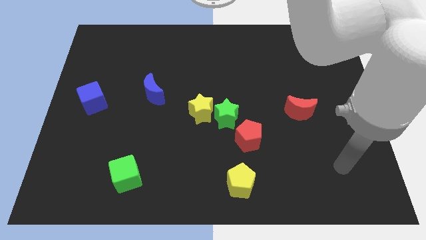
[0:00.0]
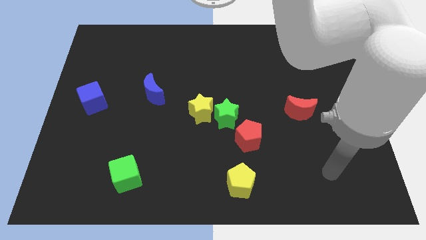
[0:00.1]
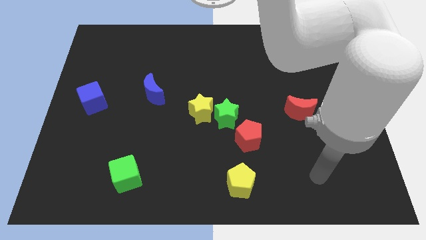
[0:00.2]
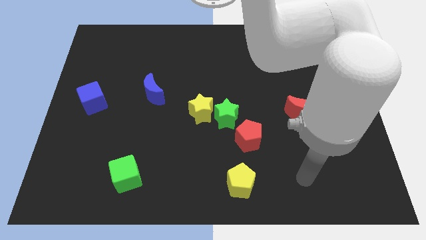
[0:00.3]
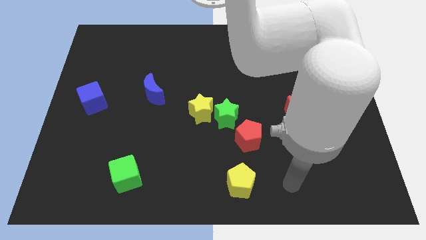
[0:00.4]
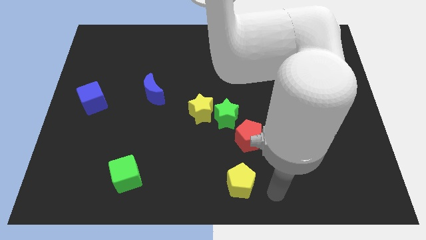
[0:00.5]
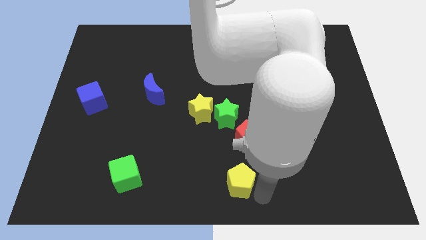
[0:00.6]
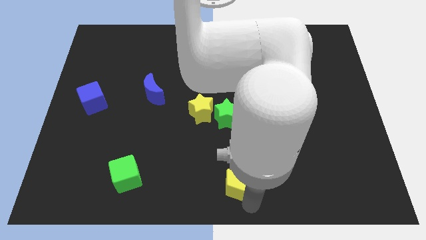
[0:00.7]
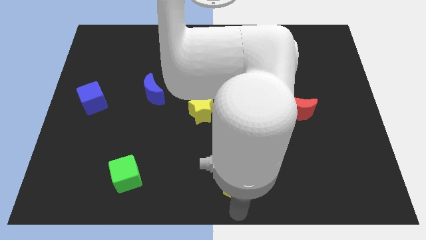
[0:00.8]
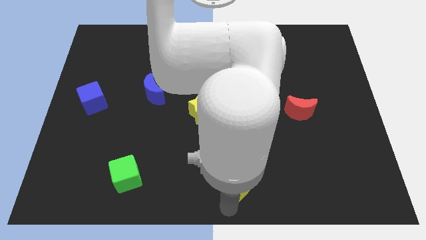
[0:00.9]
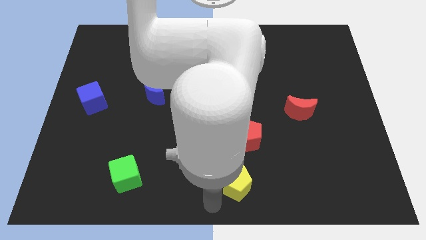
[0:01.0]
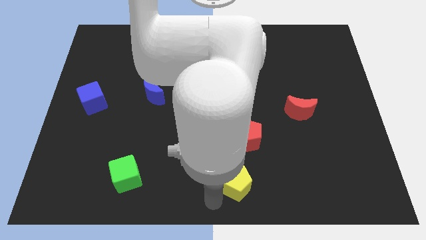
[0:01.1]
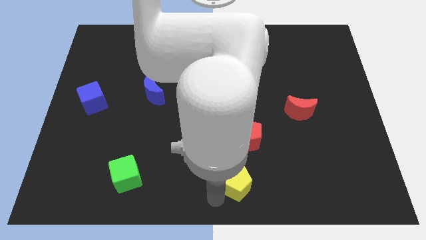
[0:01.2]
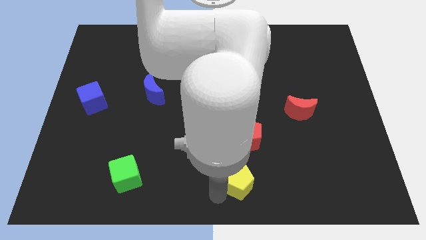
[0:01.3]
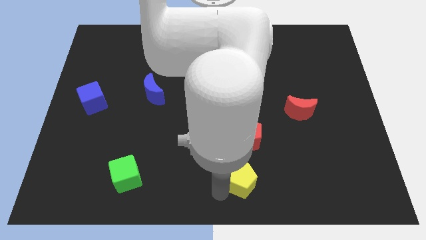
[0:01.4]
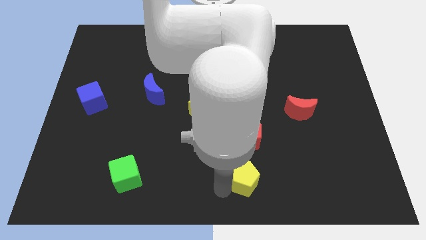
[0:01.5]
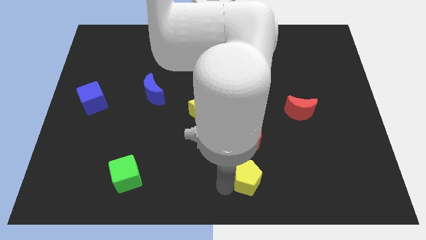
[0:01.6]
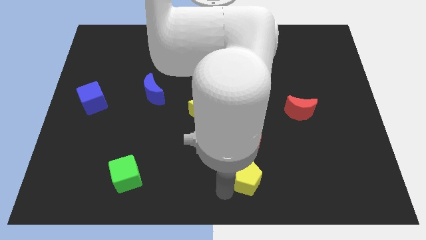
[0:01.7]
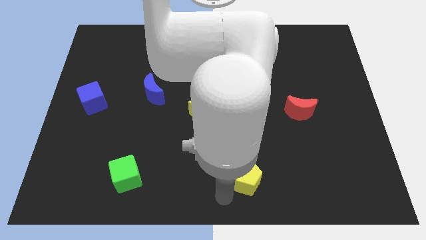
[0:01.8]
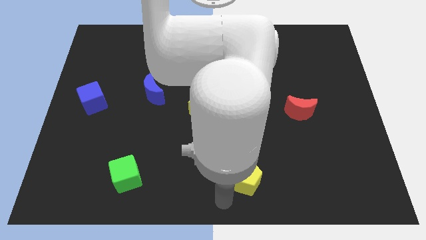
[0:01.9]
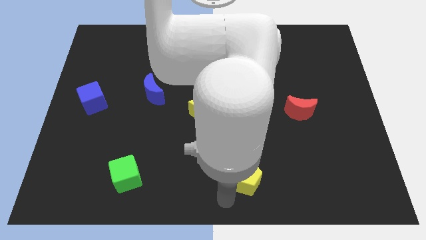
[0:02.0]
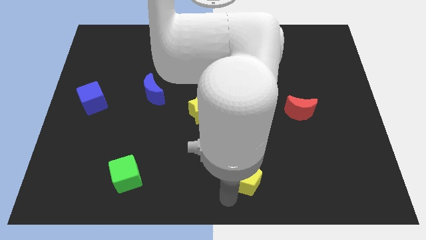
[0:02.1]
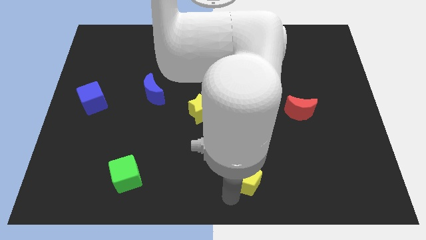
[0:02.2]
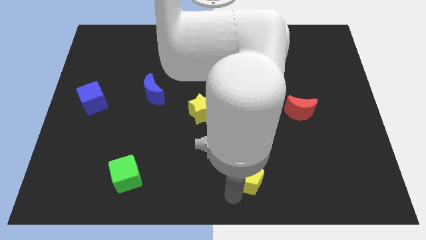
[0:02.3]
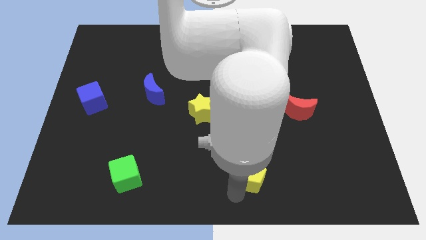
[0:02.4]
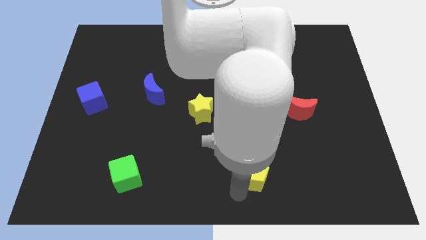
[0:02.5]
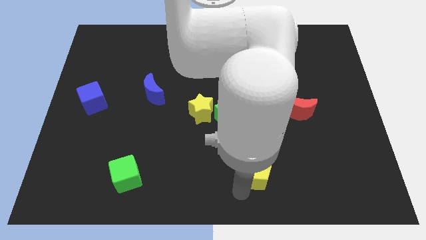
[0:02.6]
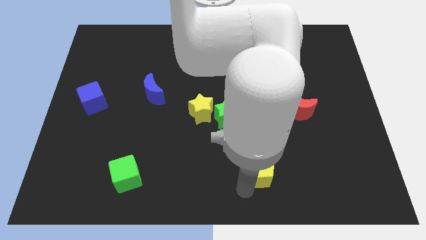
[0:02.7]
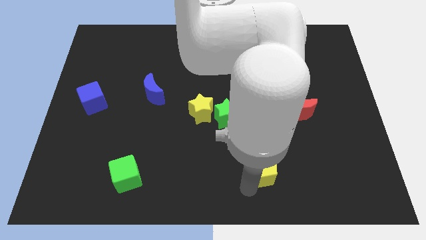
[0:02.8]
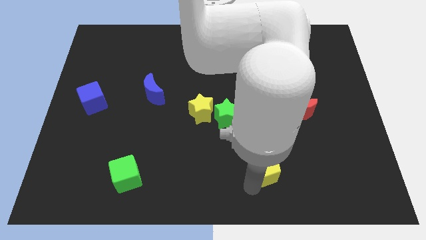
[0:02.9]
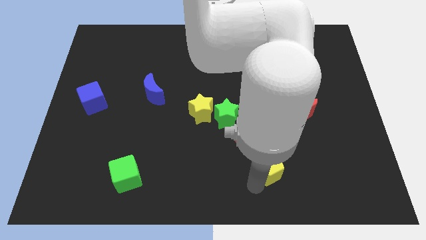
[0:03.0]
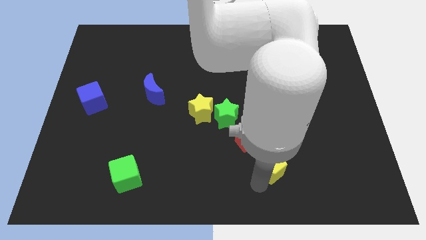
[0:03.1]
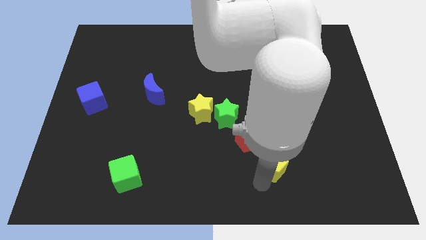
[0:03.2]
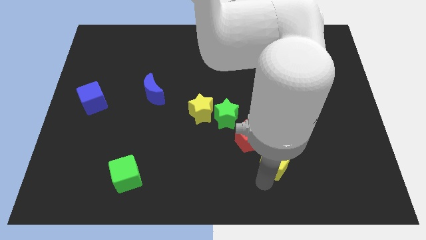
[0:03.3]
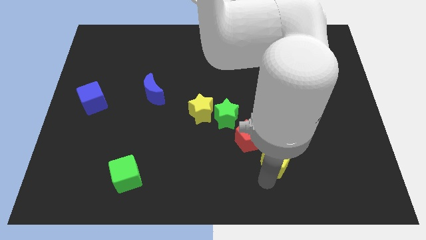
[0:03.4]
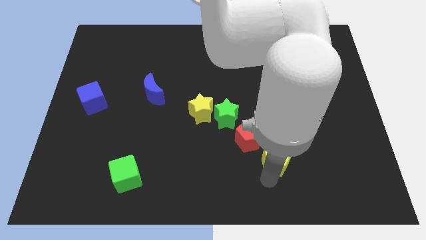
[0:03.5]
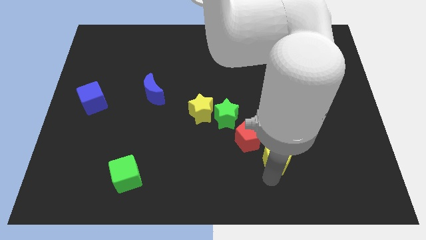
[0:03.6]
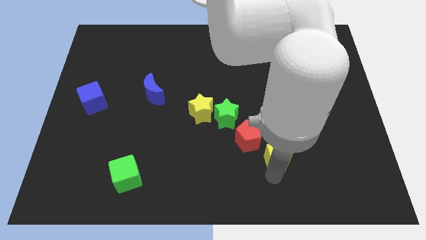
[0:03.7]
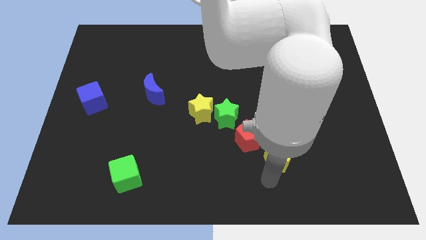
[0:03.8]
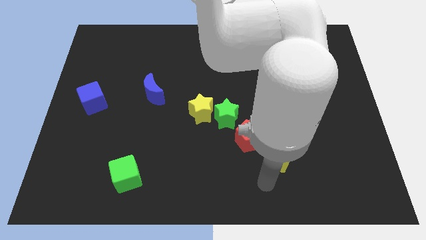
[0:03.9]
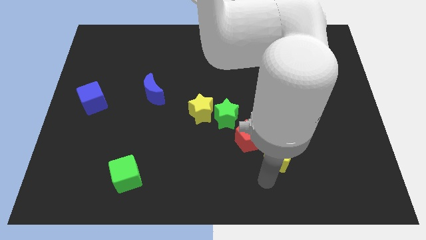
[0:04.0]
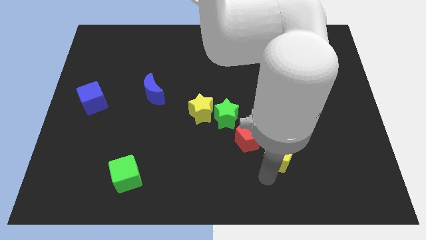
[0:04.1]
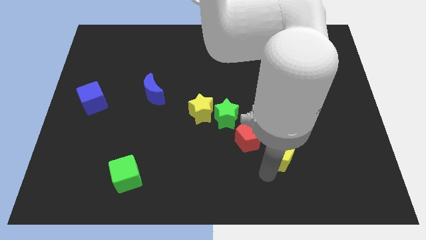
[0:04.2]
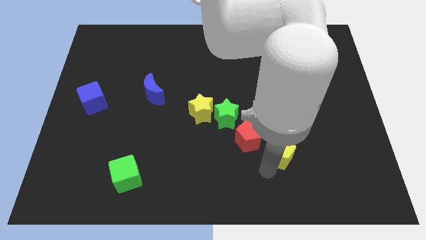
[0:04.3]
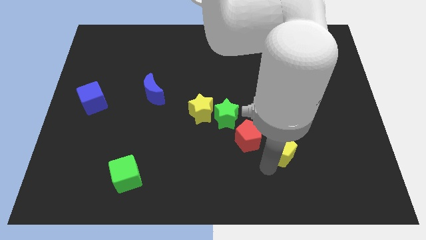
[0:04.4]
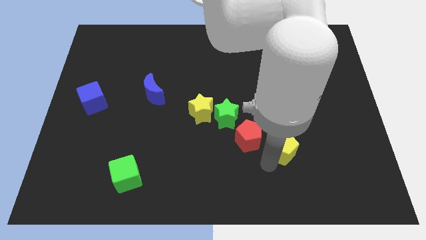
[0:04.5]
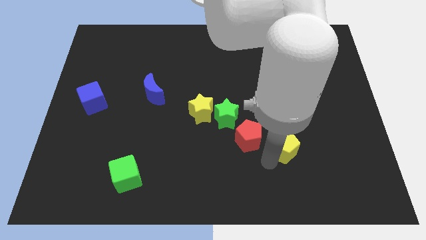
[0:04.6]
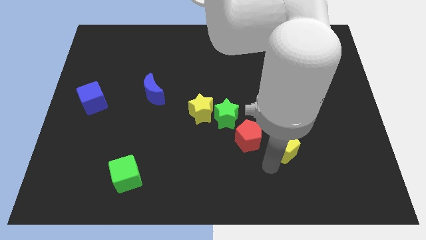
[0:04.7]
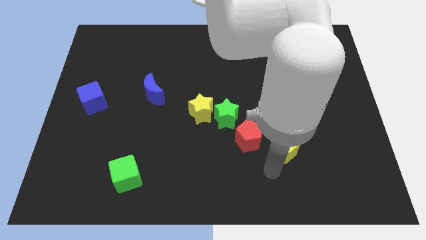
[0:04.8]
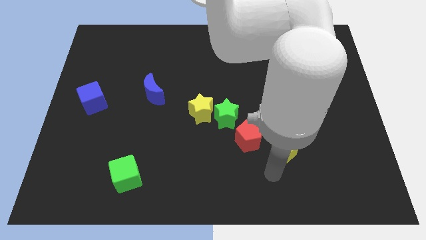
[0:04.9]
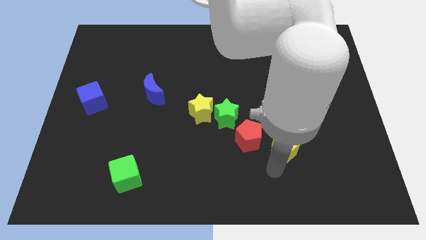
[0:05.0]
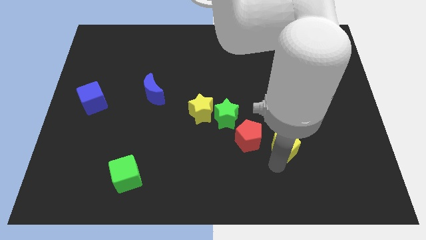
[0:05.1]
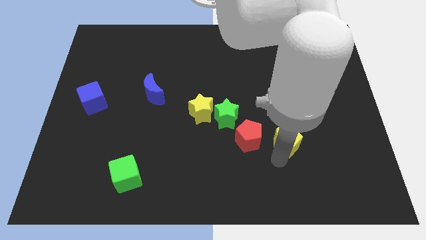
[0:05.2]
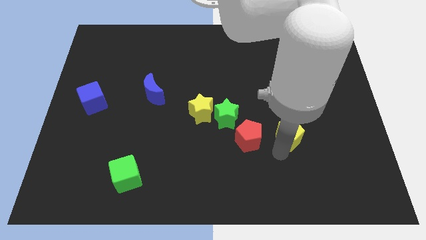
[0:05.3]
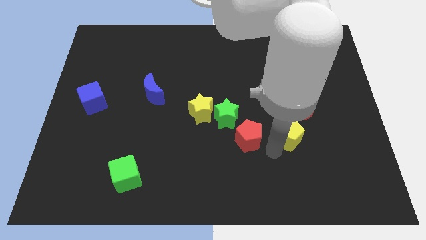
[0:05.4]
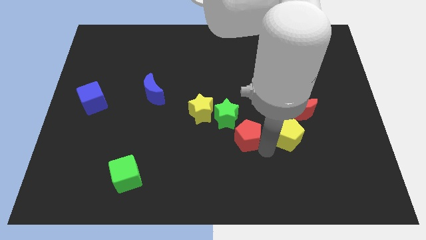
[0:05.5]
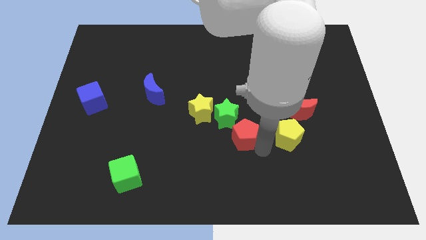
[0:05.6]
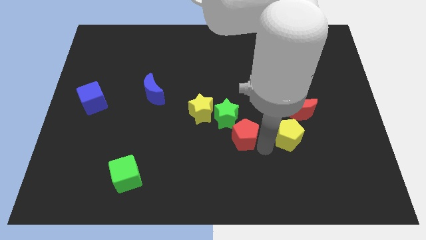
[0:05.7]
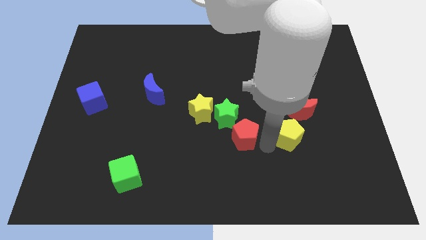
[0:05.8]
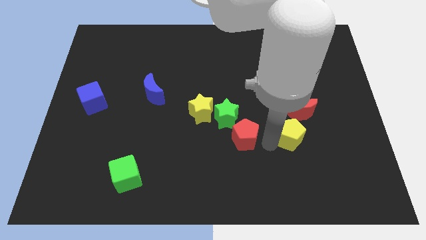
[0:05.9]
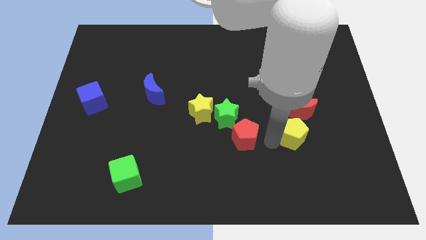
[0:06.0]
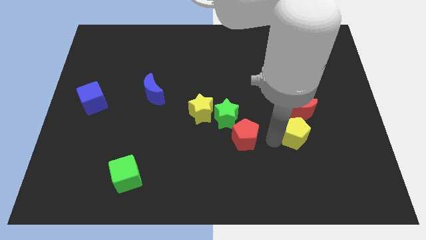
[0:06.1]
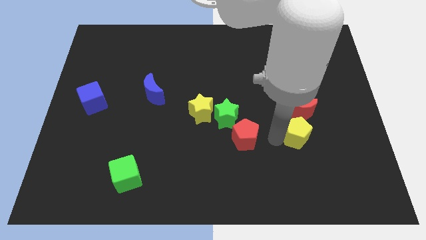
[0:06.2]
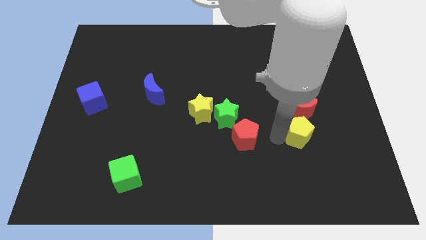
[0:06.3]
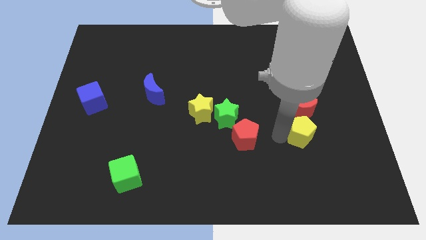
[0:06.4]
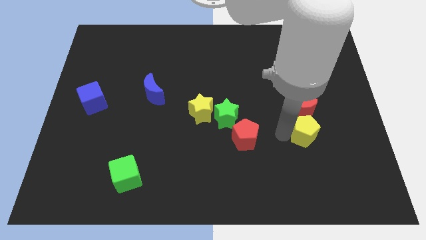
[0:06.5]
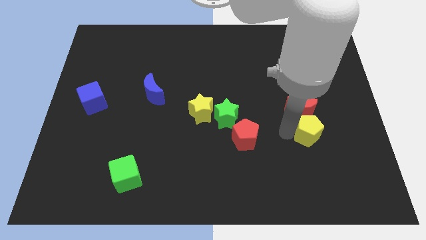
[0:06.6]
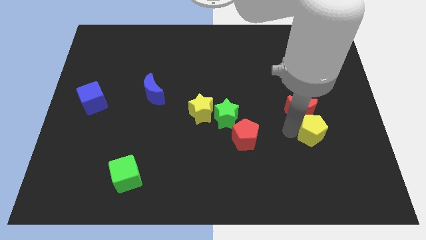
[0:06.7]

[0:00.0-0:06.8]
move the yellow pentagon up and right diagonally

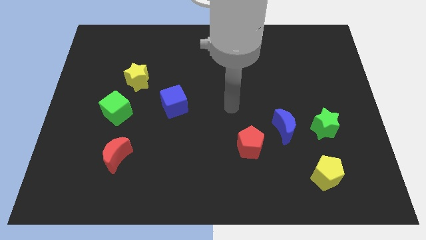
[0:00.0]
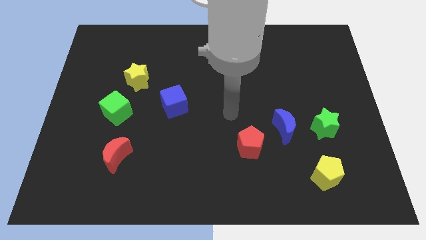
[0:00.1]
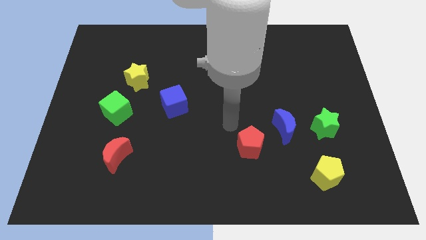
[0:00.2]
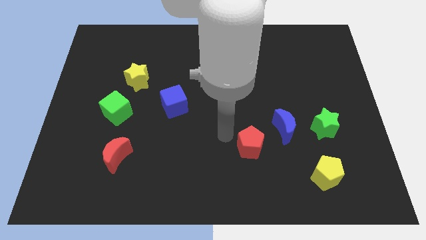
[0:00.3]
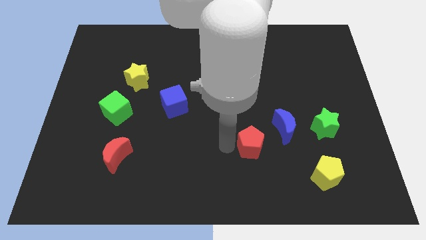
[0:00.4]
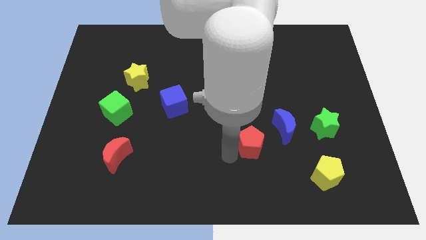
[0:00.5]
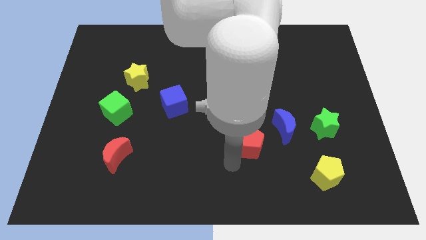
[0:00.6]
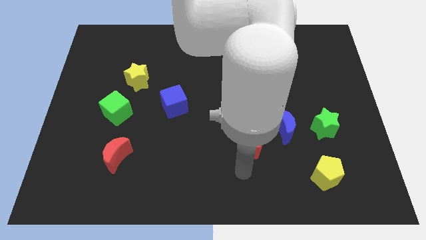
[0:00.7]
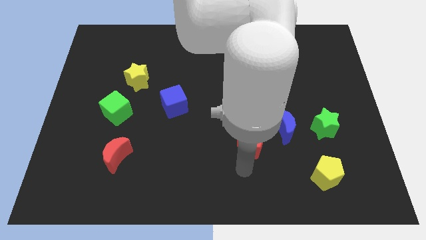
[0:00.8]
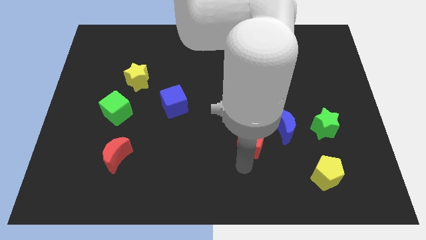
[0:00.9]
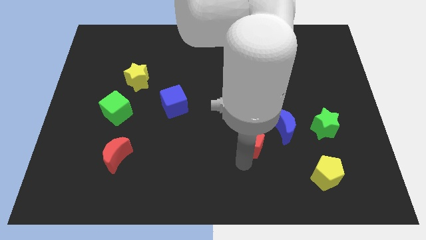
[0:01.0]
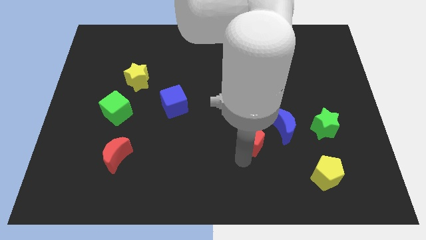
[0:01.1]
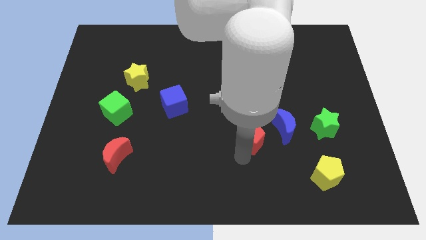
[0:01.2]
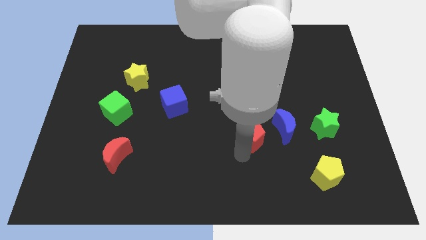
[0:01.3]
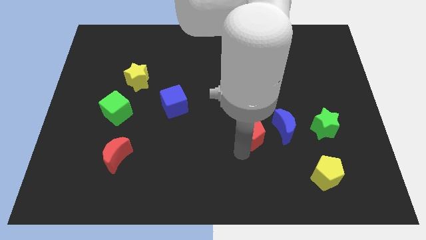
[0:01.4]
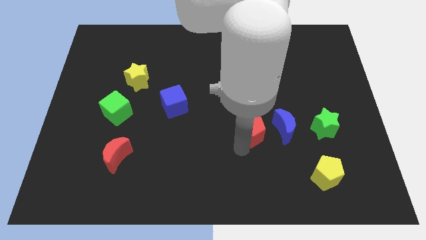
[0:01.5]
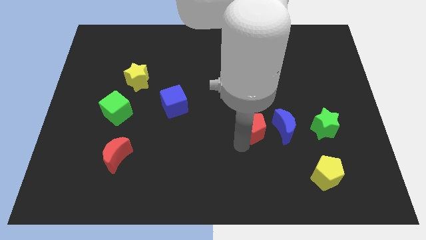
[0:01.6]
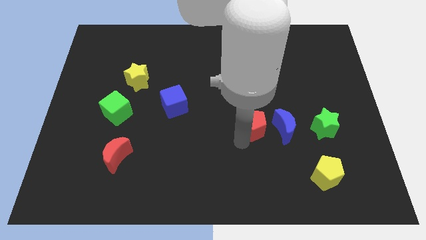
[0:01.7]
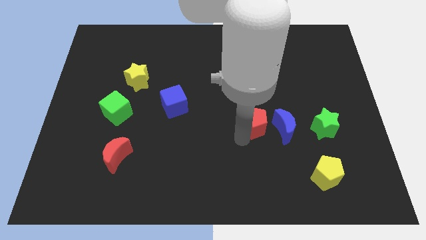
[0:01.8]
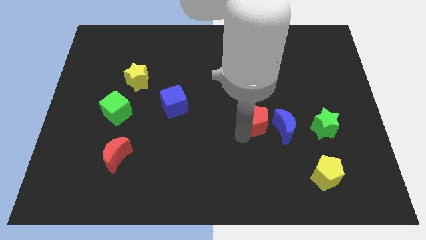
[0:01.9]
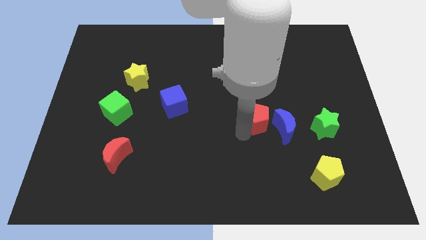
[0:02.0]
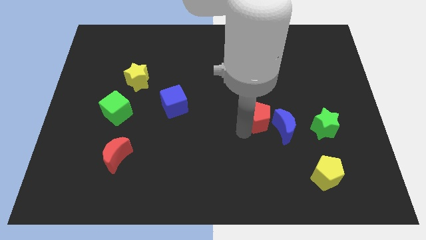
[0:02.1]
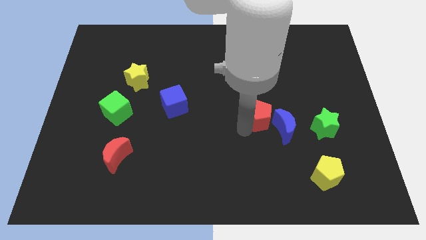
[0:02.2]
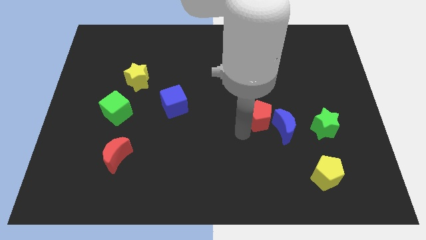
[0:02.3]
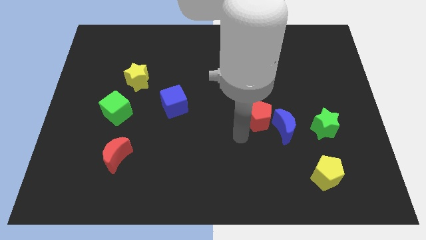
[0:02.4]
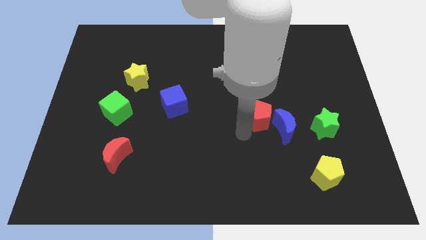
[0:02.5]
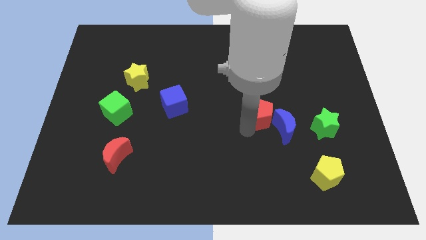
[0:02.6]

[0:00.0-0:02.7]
slightly slide the red pentagon upwards and to the right
